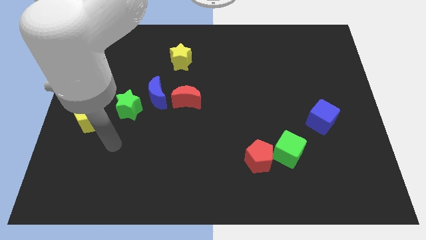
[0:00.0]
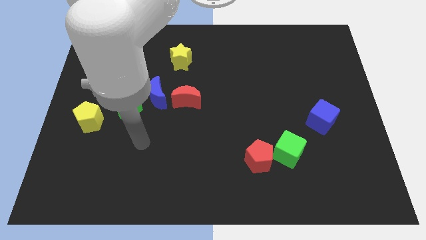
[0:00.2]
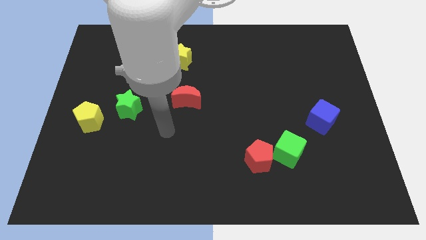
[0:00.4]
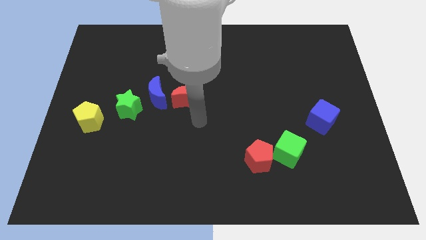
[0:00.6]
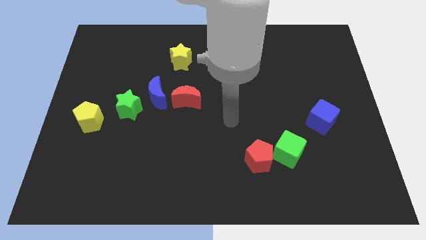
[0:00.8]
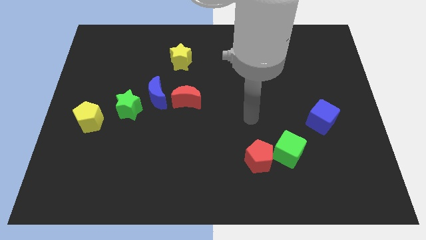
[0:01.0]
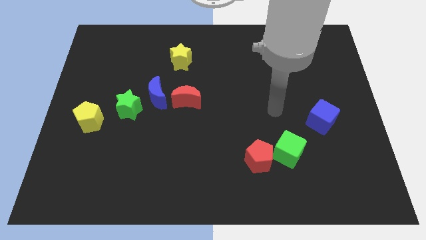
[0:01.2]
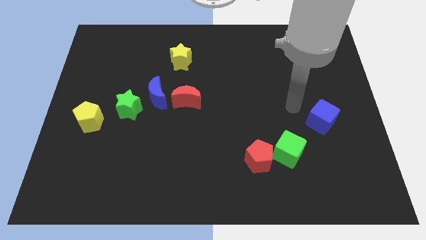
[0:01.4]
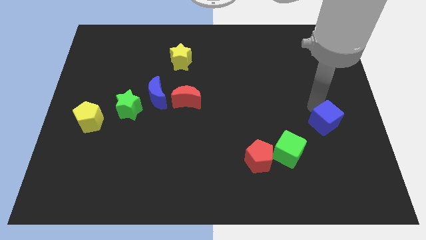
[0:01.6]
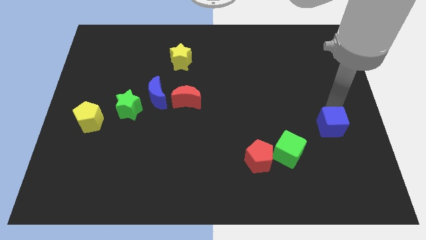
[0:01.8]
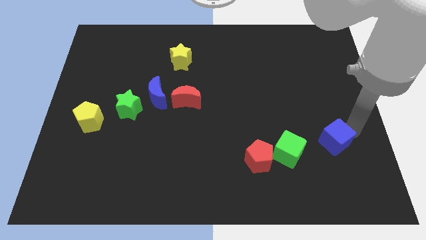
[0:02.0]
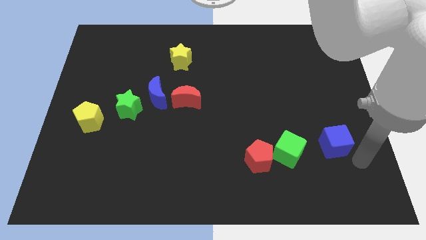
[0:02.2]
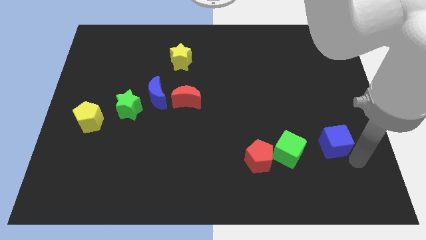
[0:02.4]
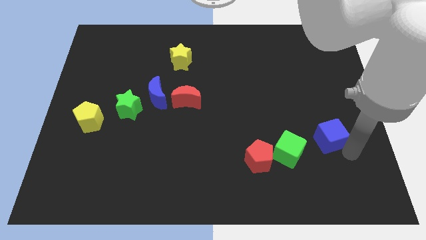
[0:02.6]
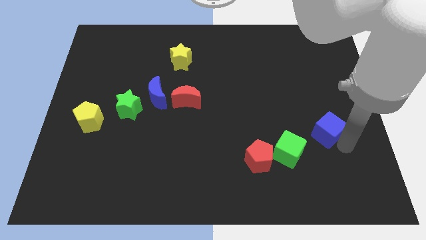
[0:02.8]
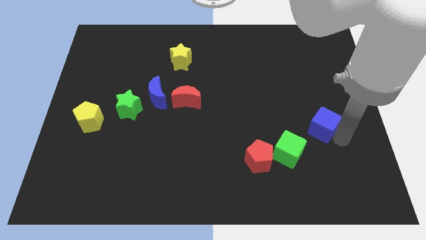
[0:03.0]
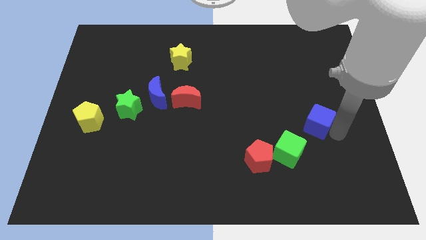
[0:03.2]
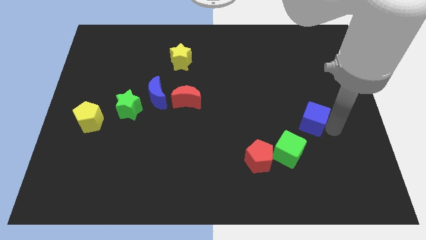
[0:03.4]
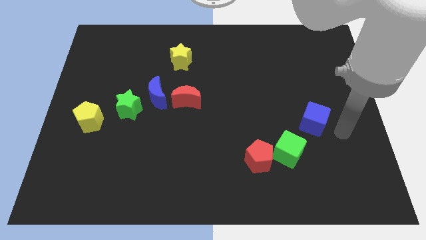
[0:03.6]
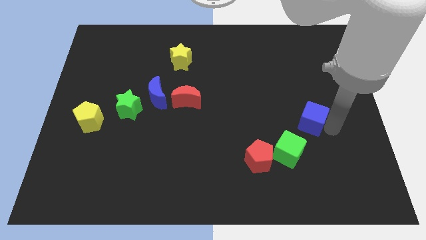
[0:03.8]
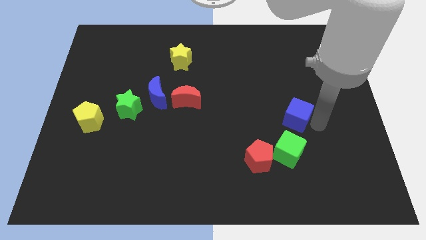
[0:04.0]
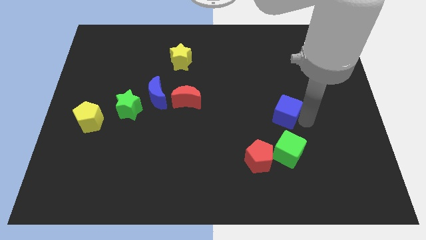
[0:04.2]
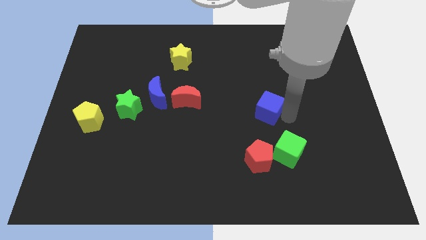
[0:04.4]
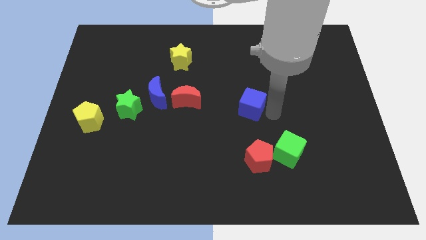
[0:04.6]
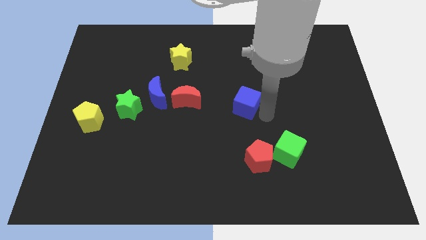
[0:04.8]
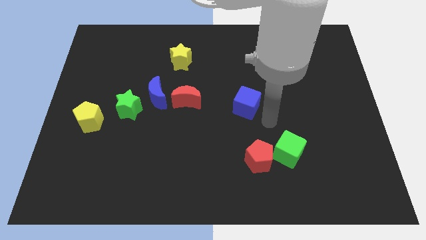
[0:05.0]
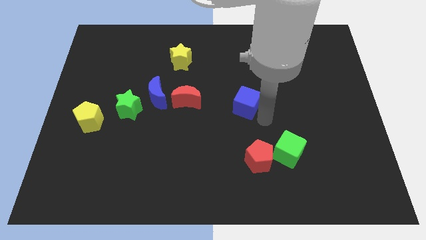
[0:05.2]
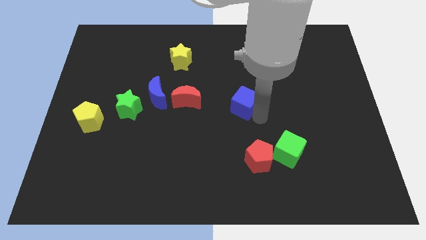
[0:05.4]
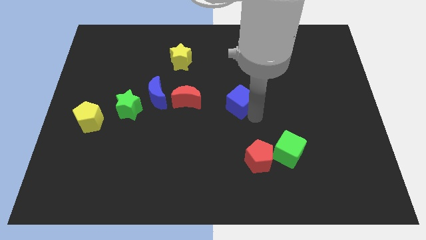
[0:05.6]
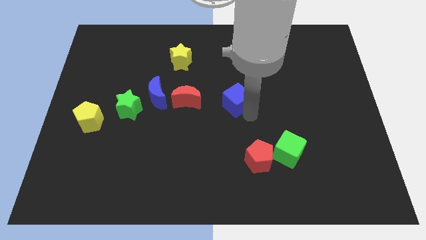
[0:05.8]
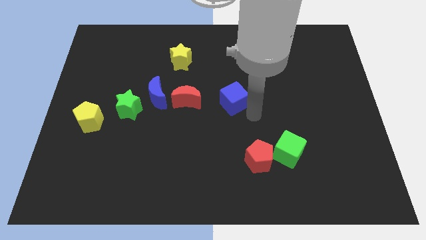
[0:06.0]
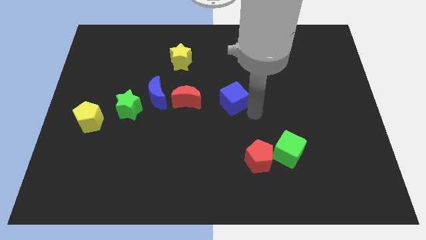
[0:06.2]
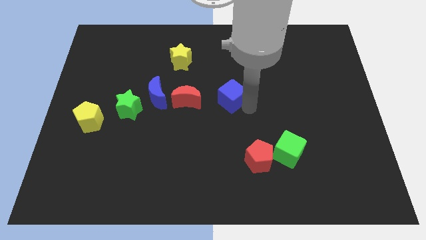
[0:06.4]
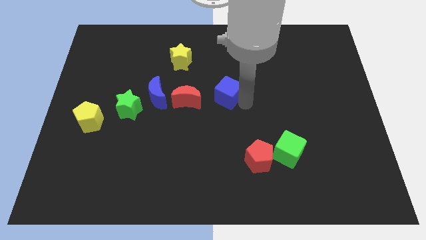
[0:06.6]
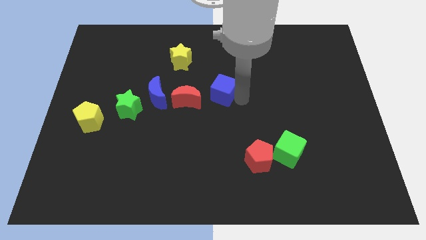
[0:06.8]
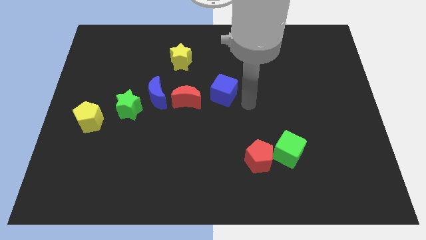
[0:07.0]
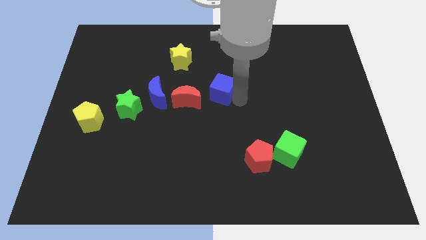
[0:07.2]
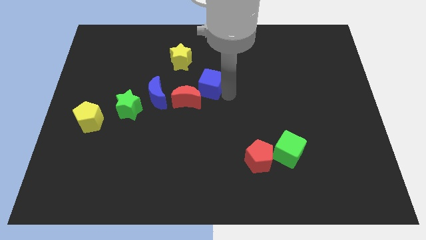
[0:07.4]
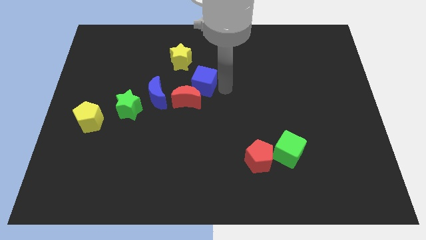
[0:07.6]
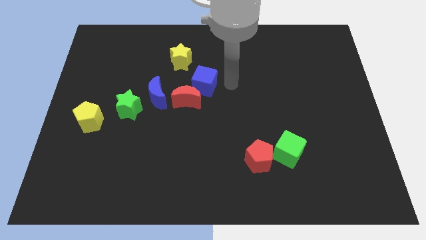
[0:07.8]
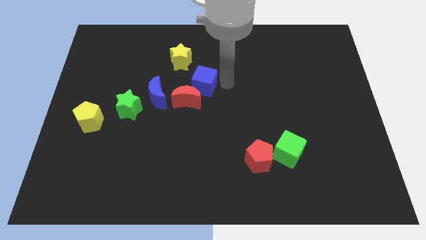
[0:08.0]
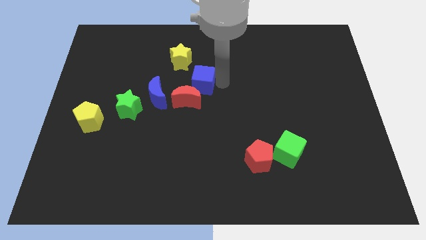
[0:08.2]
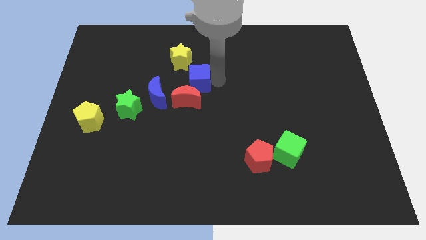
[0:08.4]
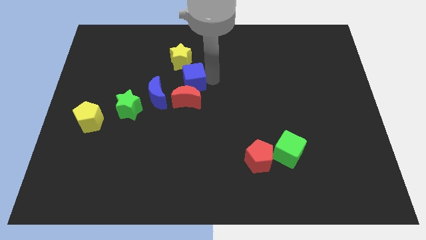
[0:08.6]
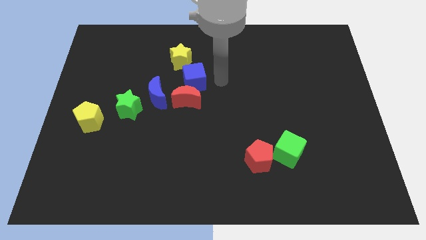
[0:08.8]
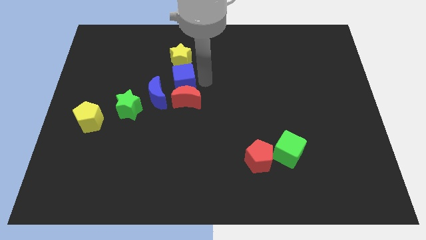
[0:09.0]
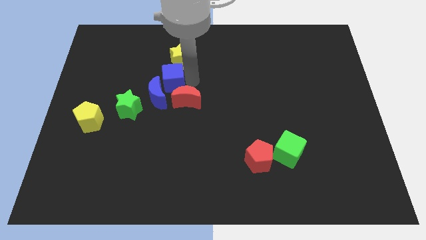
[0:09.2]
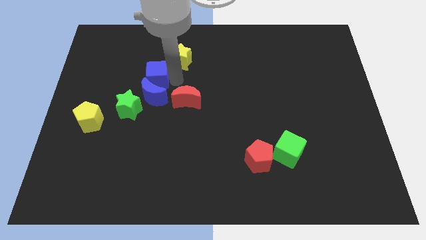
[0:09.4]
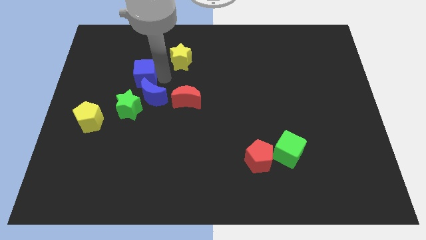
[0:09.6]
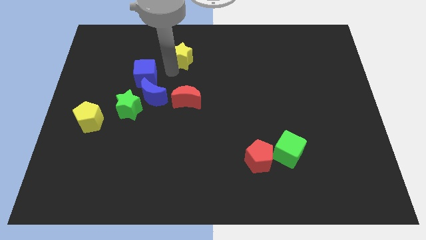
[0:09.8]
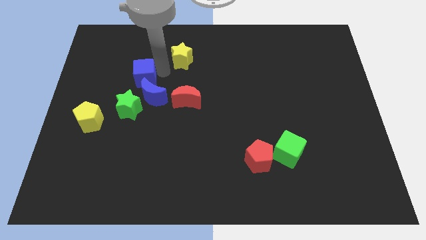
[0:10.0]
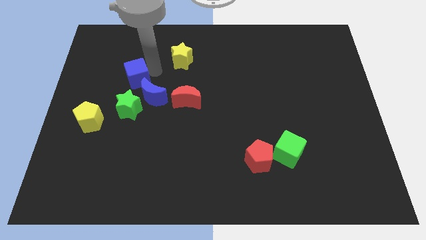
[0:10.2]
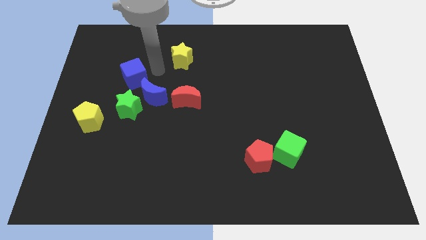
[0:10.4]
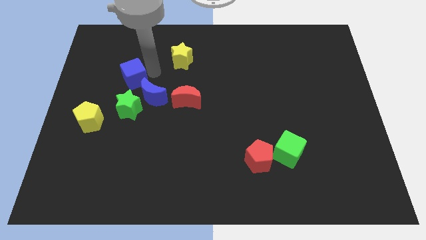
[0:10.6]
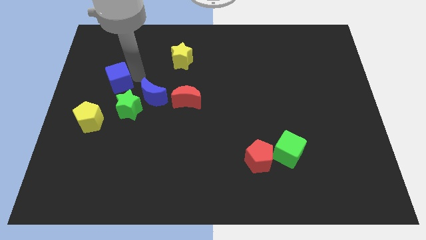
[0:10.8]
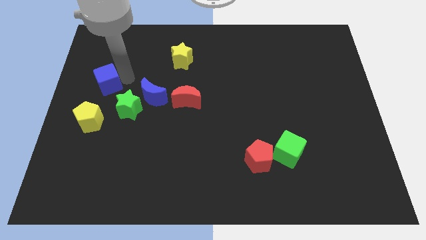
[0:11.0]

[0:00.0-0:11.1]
move the blue cube to the left side of the board
